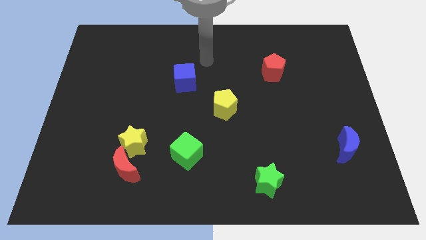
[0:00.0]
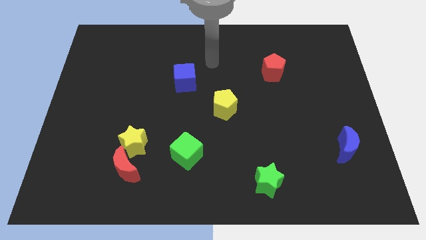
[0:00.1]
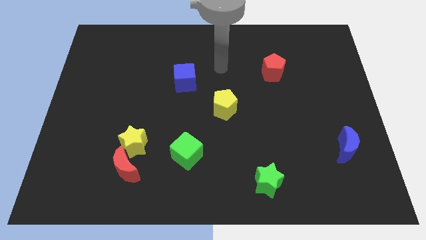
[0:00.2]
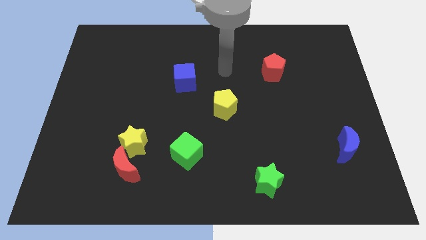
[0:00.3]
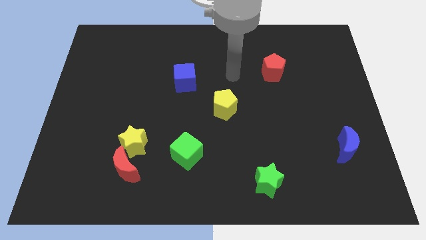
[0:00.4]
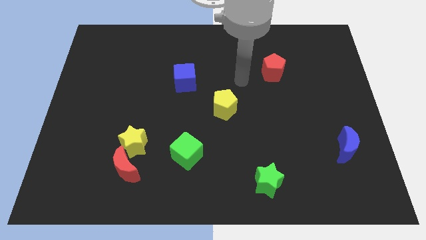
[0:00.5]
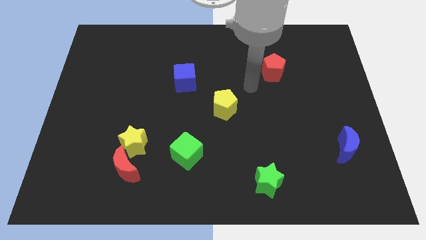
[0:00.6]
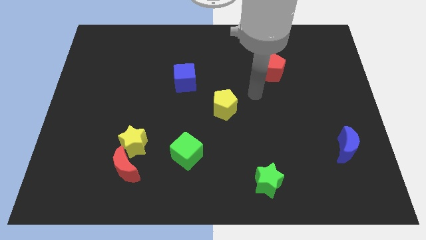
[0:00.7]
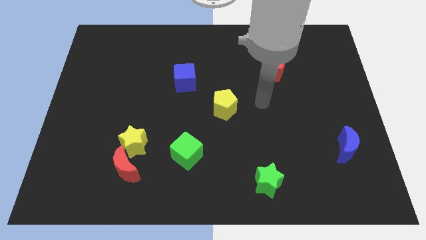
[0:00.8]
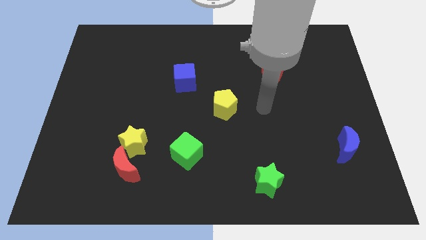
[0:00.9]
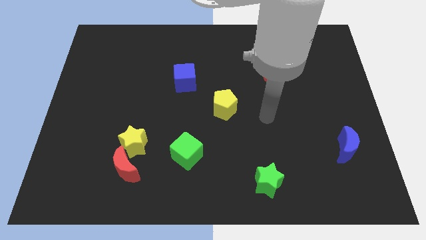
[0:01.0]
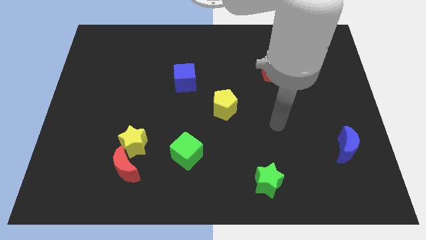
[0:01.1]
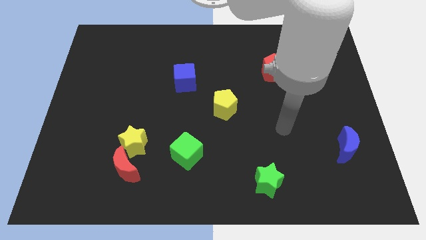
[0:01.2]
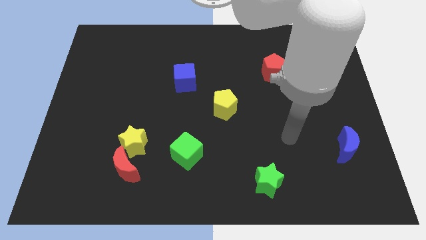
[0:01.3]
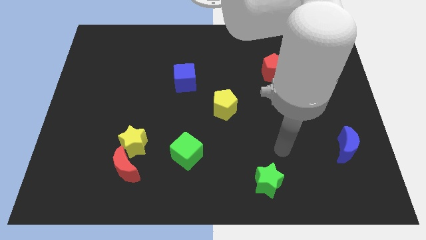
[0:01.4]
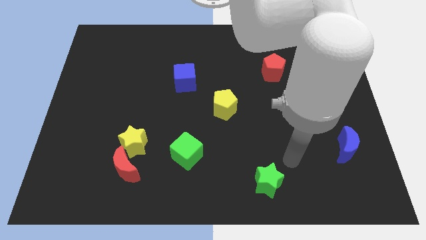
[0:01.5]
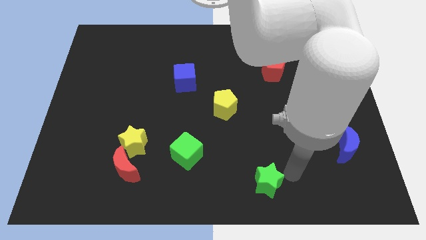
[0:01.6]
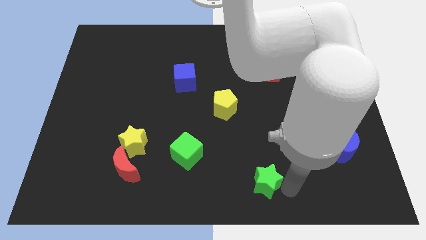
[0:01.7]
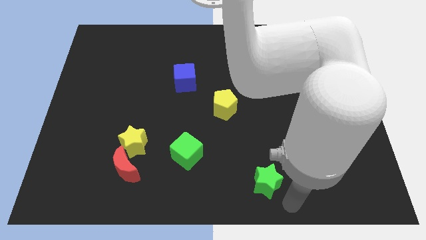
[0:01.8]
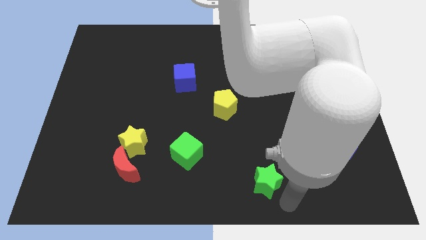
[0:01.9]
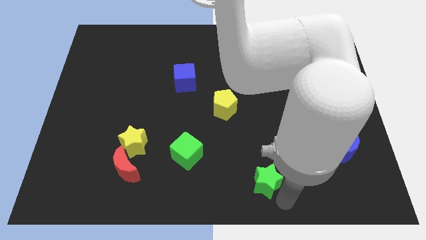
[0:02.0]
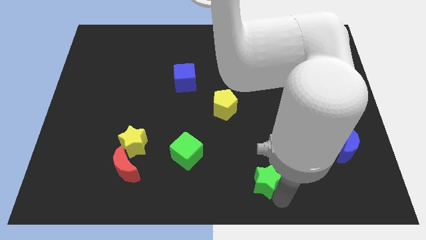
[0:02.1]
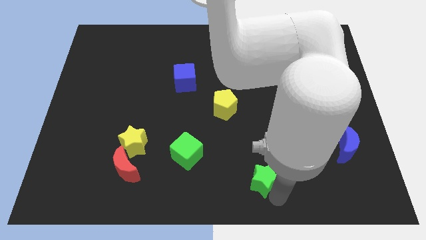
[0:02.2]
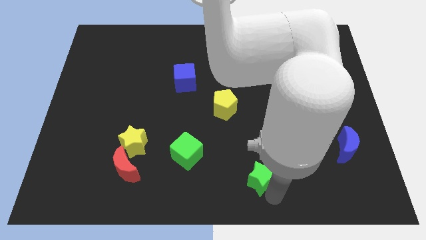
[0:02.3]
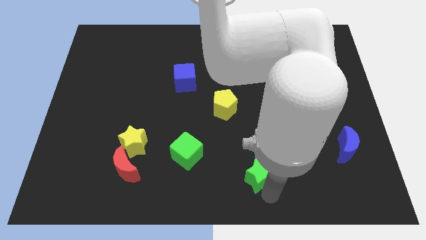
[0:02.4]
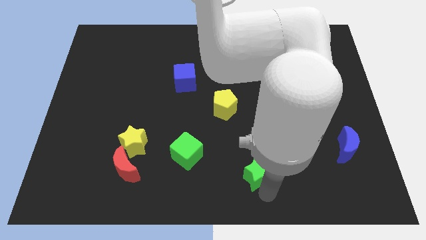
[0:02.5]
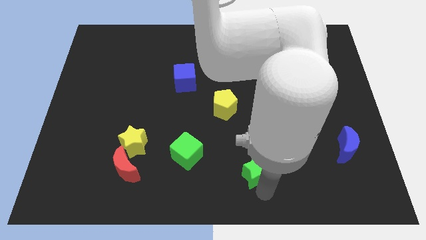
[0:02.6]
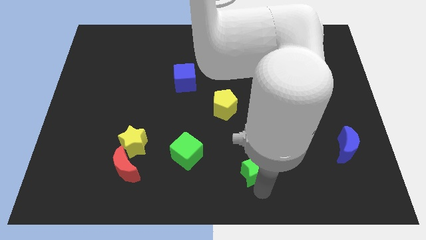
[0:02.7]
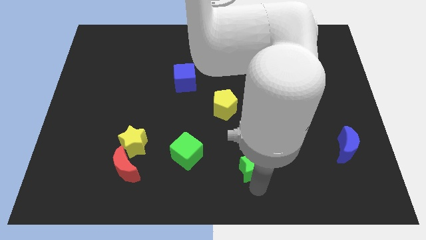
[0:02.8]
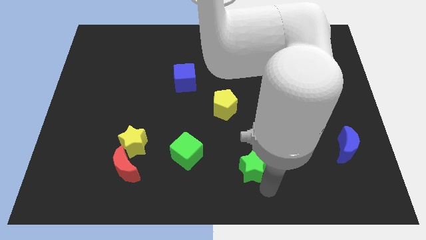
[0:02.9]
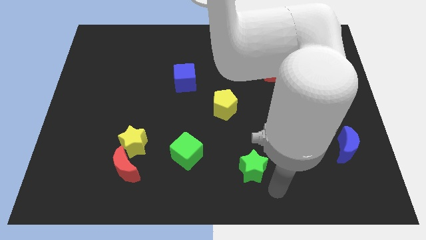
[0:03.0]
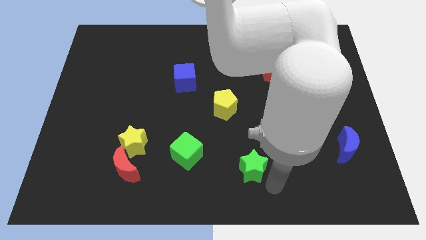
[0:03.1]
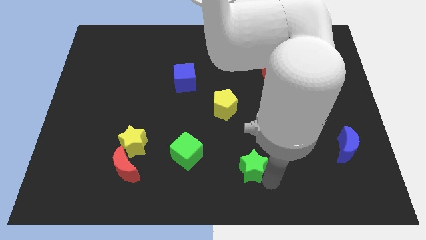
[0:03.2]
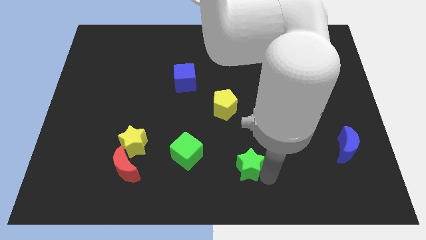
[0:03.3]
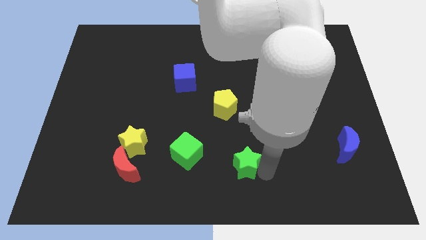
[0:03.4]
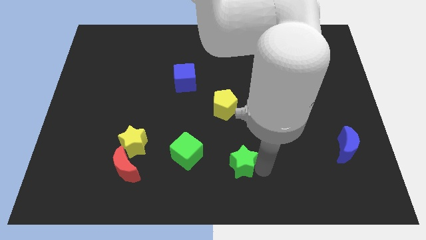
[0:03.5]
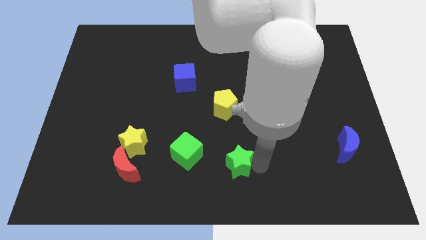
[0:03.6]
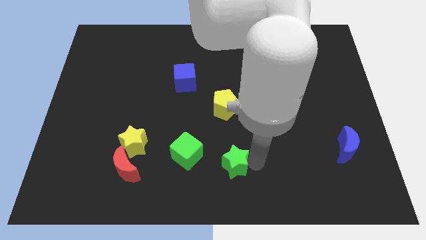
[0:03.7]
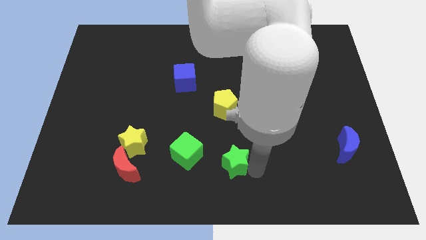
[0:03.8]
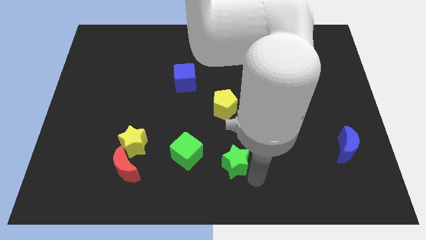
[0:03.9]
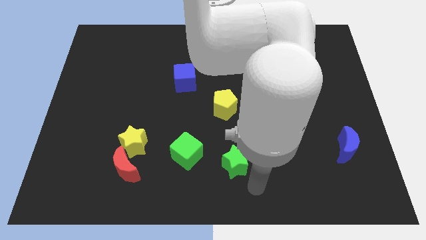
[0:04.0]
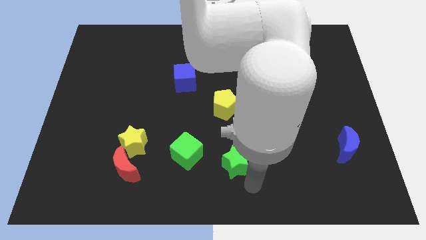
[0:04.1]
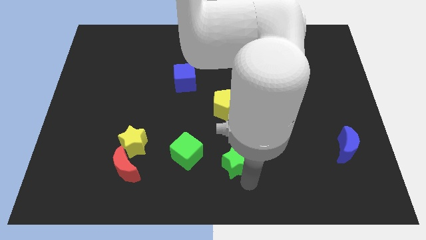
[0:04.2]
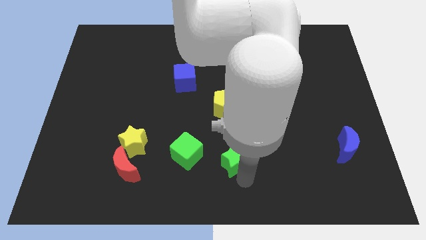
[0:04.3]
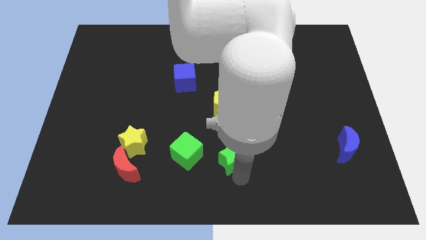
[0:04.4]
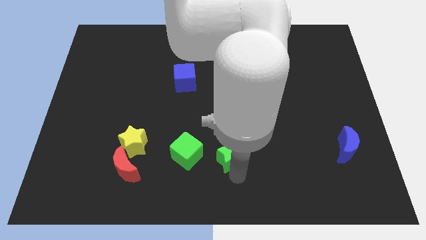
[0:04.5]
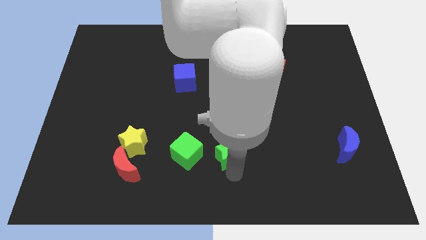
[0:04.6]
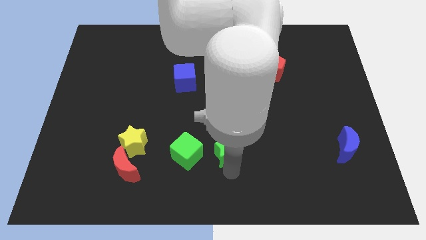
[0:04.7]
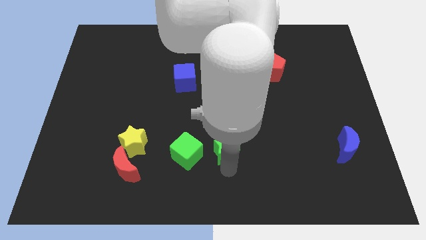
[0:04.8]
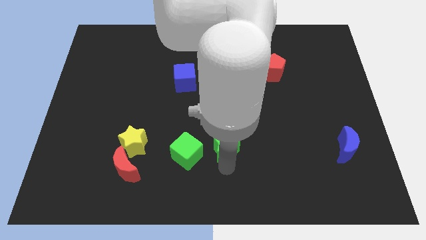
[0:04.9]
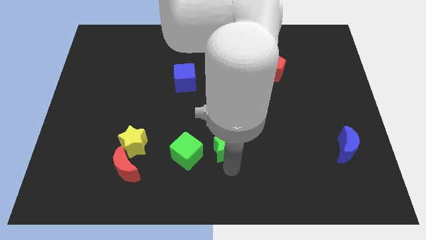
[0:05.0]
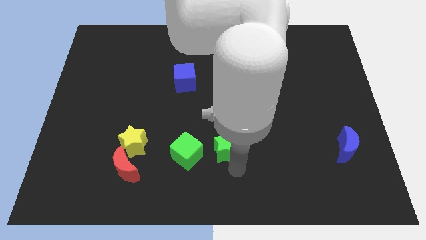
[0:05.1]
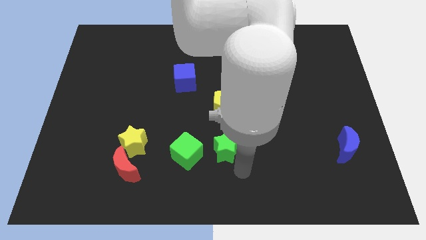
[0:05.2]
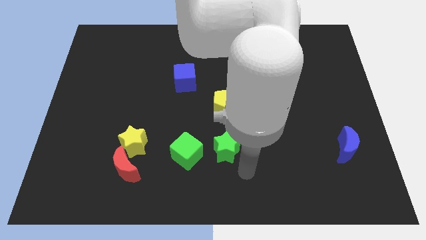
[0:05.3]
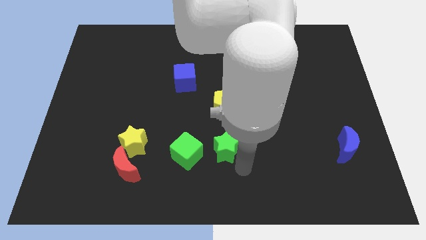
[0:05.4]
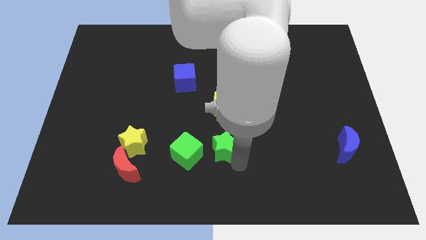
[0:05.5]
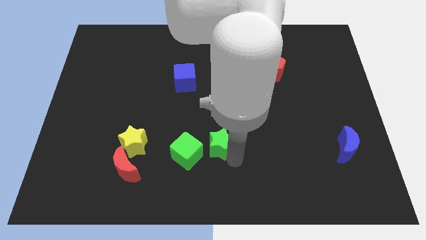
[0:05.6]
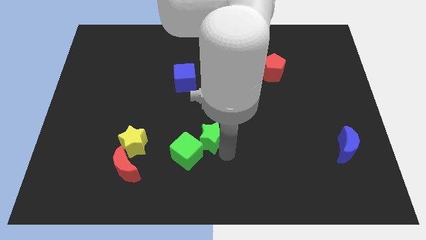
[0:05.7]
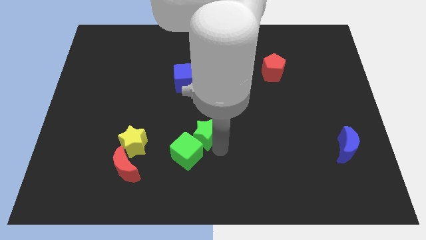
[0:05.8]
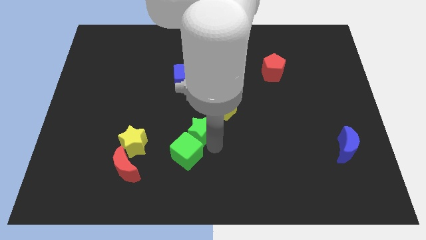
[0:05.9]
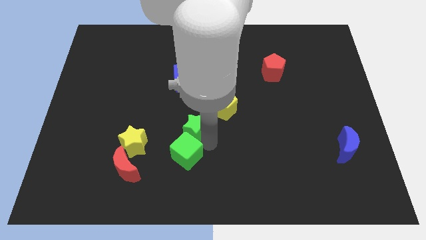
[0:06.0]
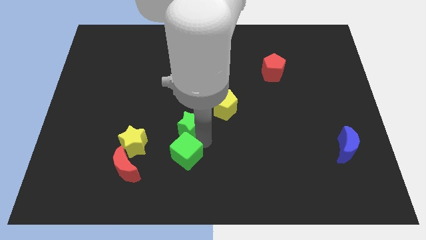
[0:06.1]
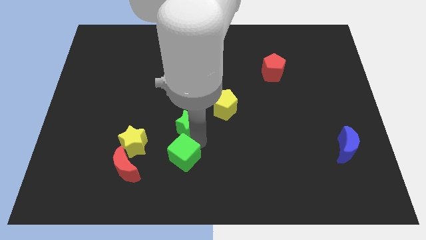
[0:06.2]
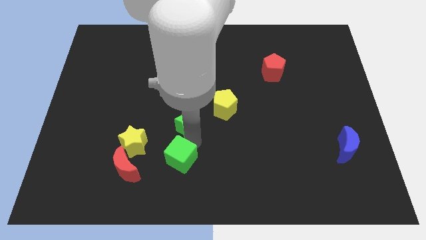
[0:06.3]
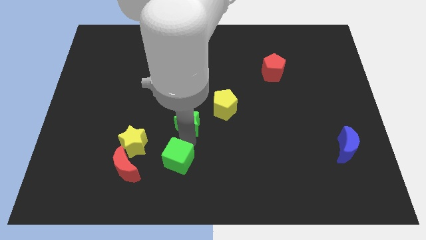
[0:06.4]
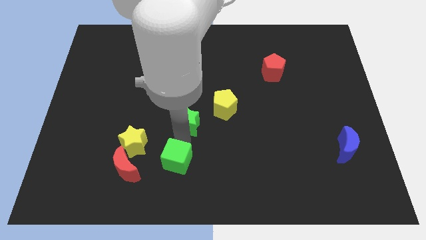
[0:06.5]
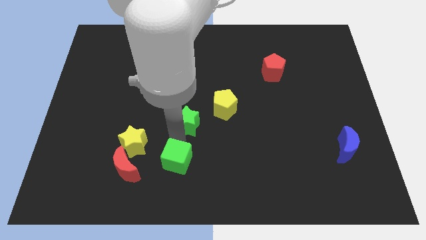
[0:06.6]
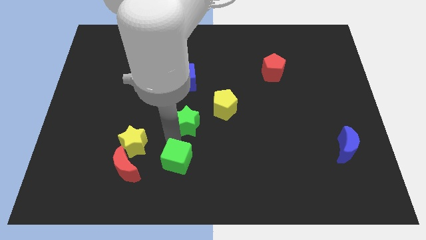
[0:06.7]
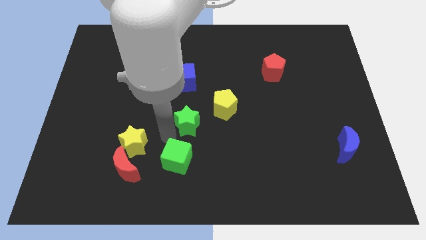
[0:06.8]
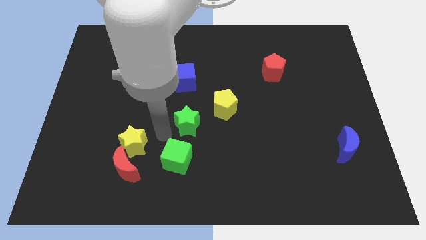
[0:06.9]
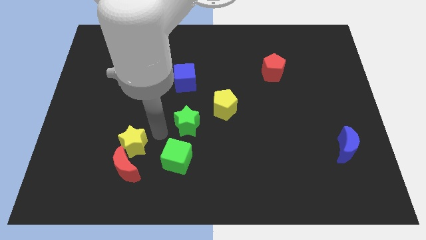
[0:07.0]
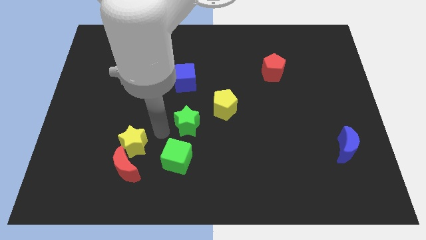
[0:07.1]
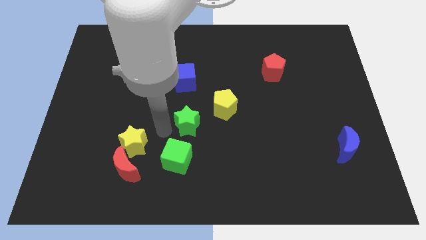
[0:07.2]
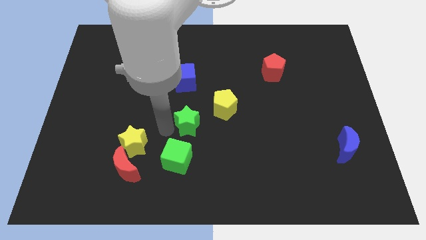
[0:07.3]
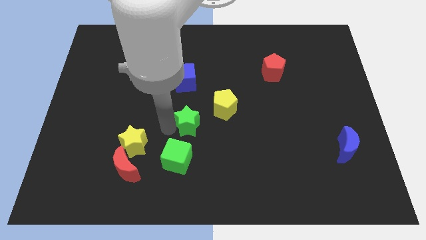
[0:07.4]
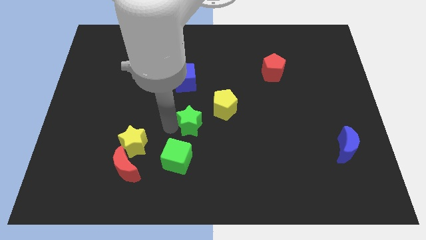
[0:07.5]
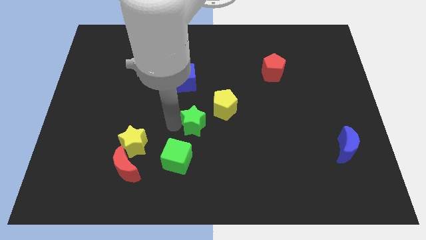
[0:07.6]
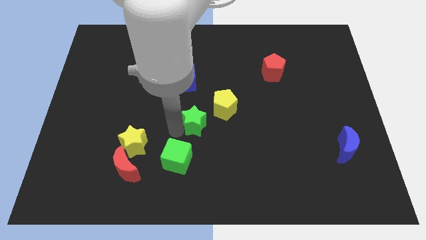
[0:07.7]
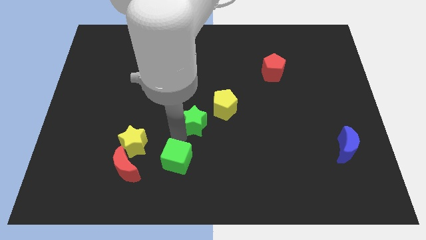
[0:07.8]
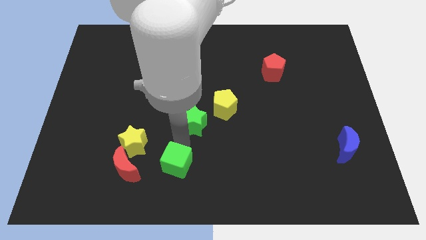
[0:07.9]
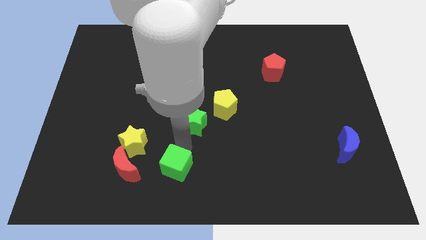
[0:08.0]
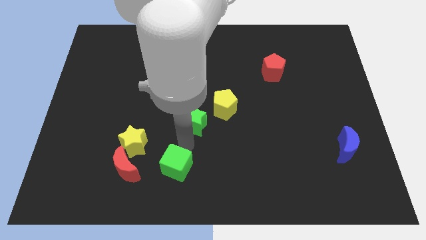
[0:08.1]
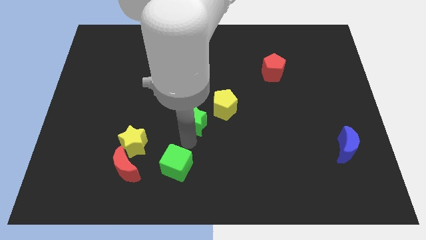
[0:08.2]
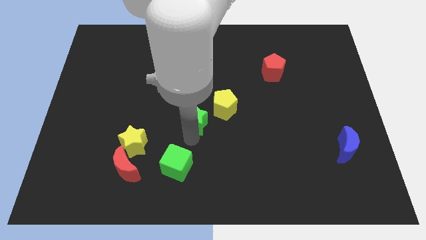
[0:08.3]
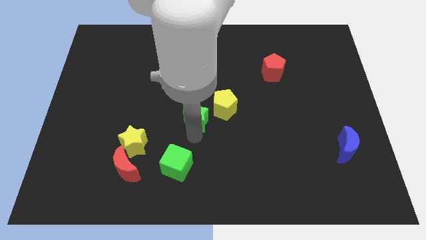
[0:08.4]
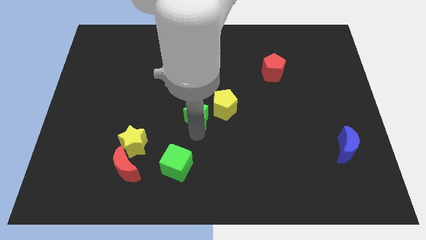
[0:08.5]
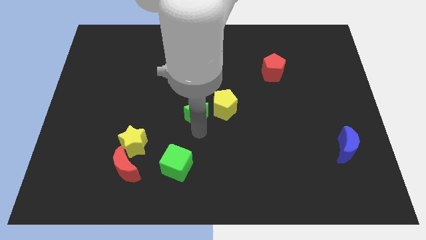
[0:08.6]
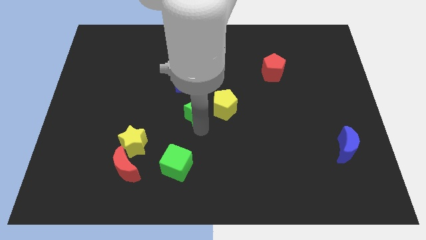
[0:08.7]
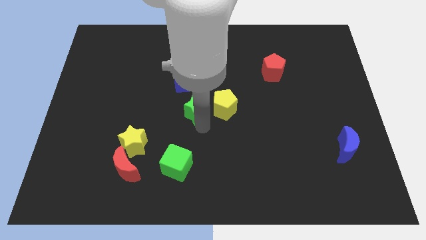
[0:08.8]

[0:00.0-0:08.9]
put the green star to the bottom right of the blue cube
